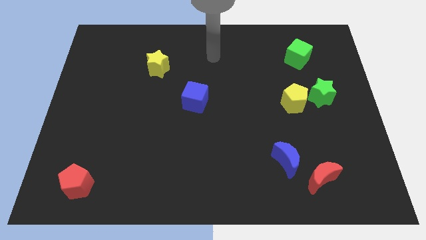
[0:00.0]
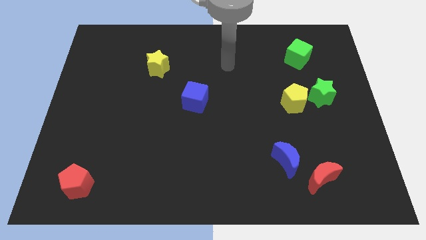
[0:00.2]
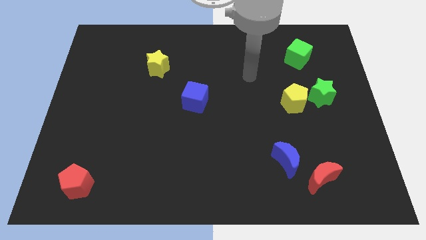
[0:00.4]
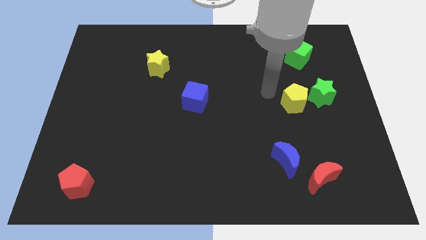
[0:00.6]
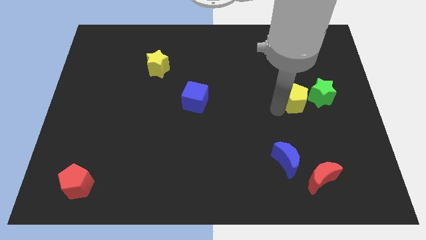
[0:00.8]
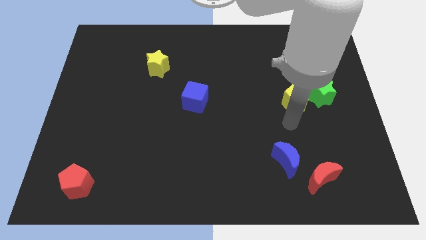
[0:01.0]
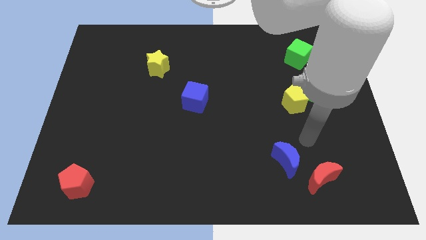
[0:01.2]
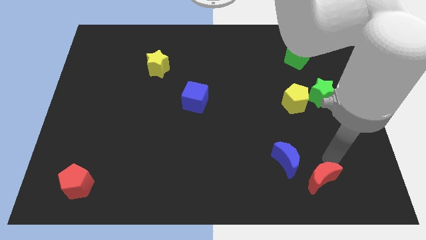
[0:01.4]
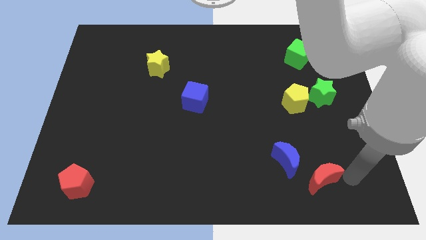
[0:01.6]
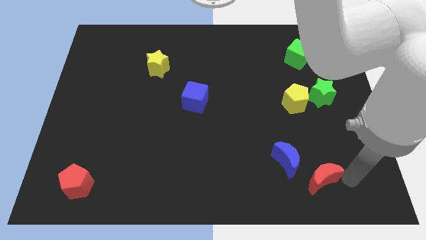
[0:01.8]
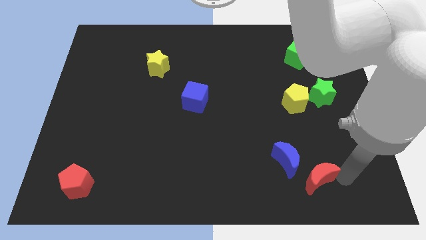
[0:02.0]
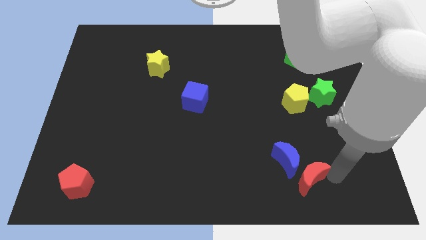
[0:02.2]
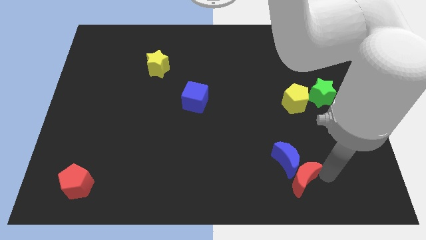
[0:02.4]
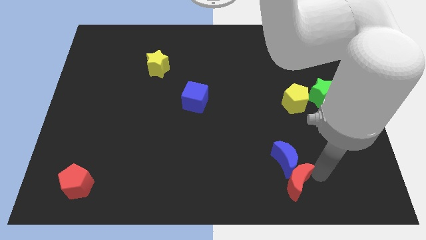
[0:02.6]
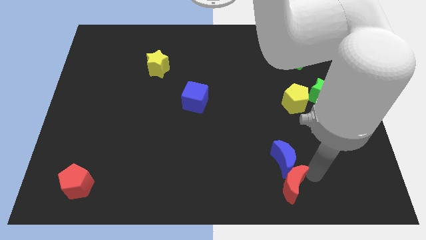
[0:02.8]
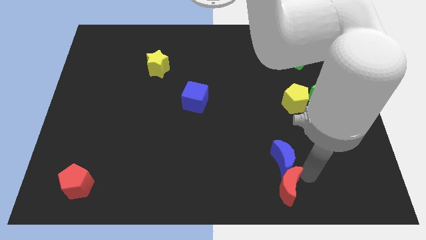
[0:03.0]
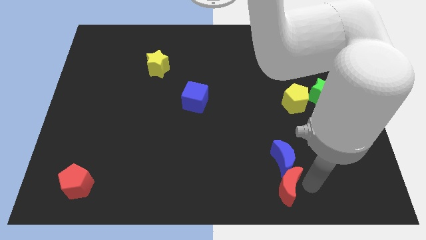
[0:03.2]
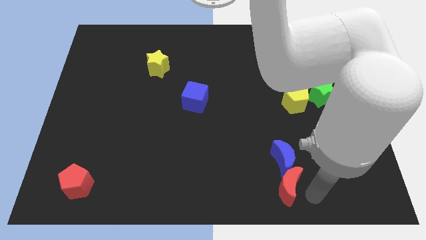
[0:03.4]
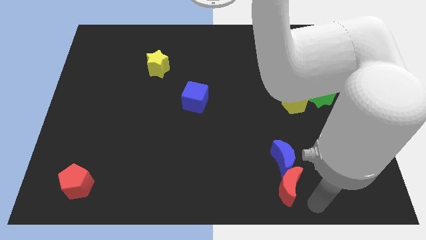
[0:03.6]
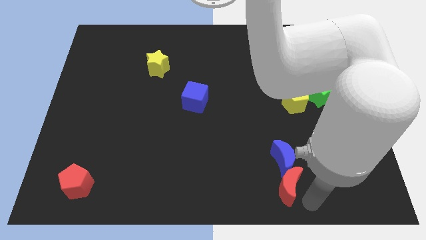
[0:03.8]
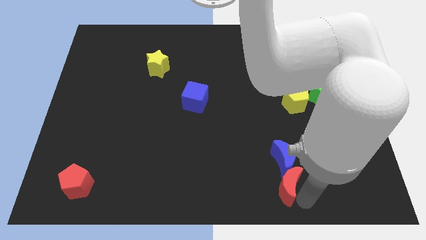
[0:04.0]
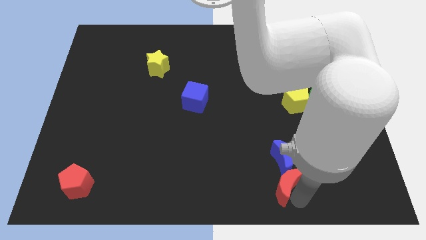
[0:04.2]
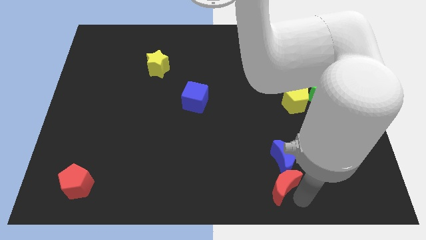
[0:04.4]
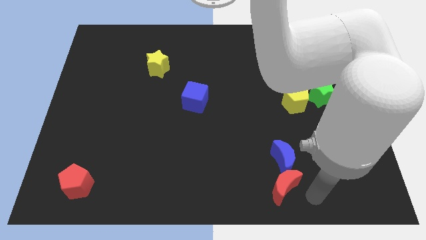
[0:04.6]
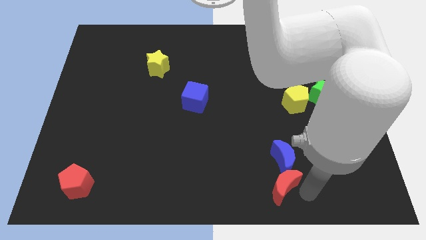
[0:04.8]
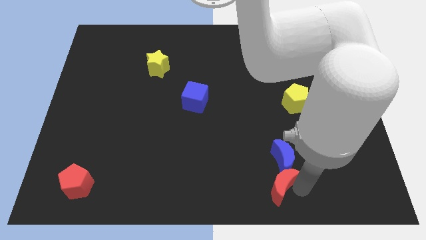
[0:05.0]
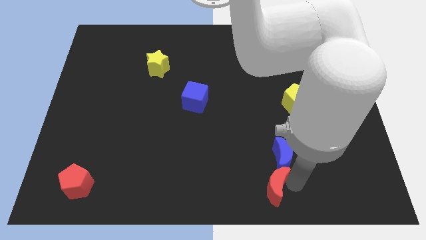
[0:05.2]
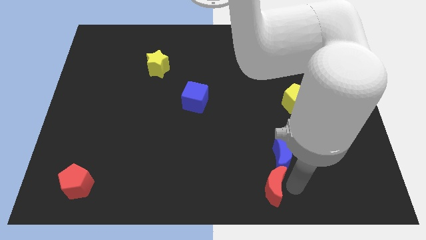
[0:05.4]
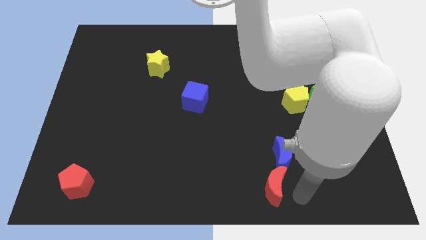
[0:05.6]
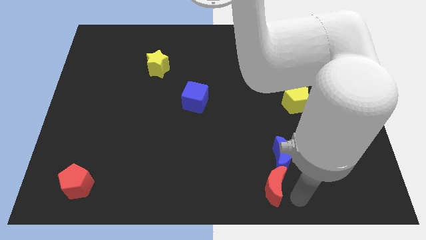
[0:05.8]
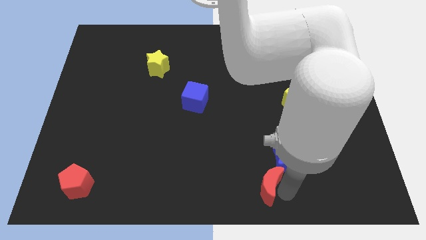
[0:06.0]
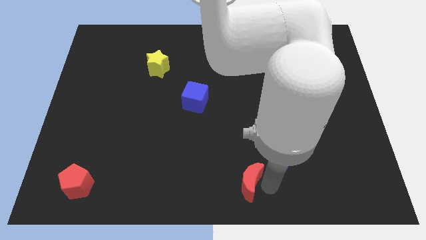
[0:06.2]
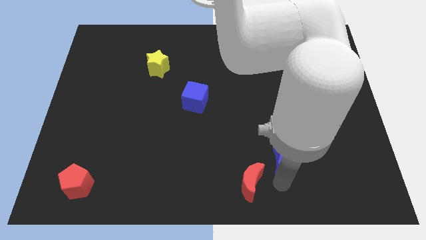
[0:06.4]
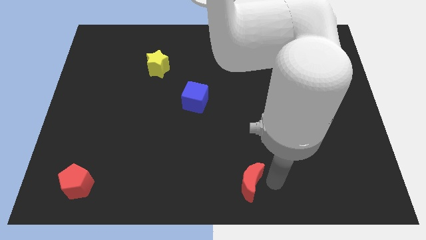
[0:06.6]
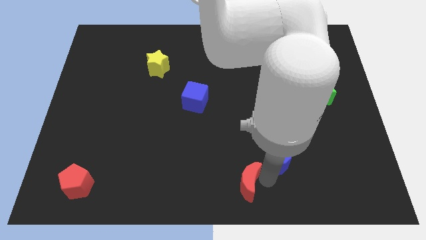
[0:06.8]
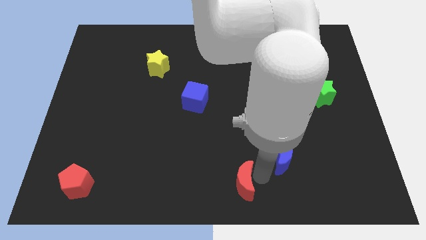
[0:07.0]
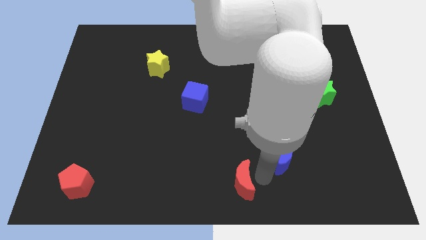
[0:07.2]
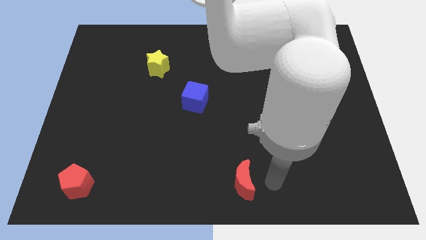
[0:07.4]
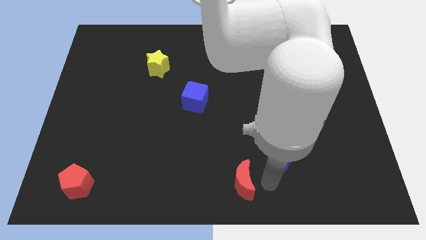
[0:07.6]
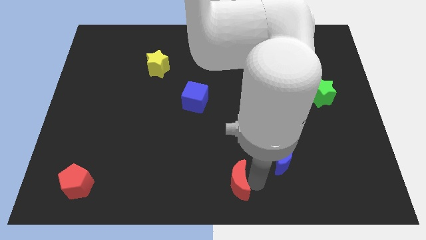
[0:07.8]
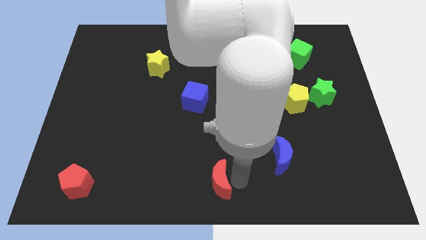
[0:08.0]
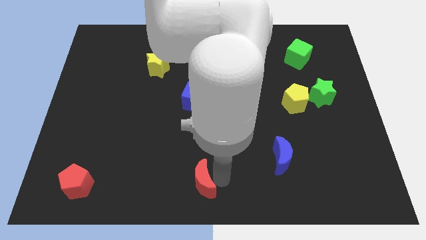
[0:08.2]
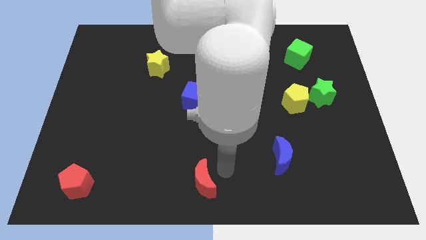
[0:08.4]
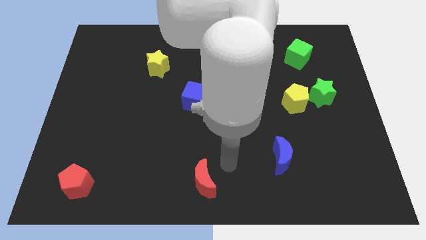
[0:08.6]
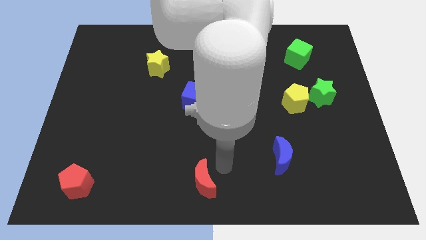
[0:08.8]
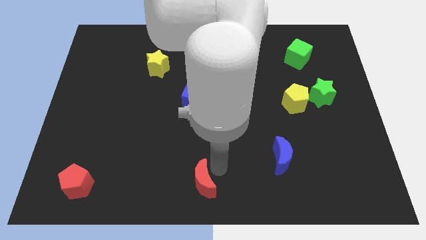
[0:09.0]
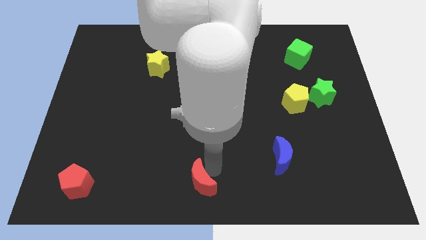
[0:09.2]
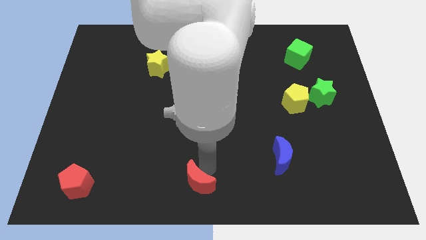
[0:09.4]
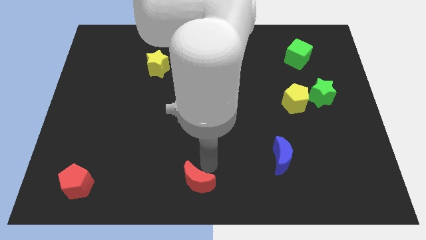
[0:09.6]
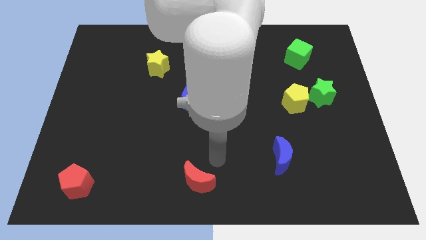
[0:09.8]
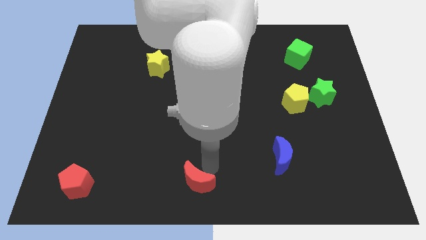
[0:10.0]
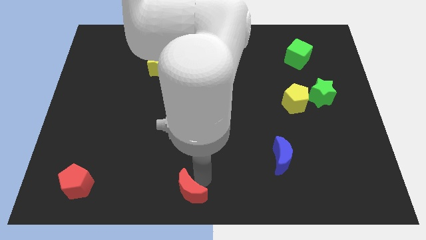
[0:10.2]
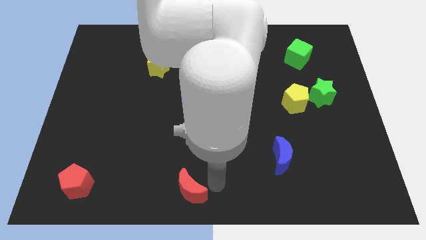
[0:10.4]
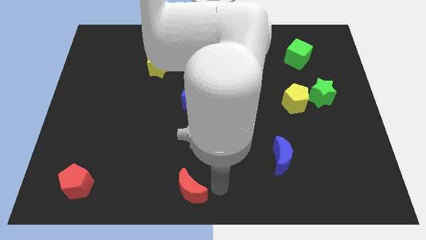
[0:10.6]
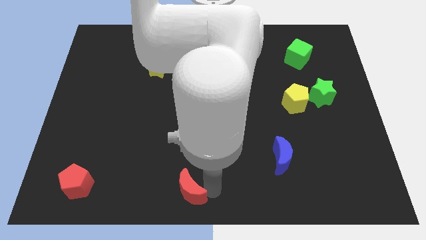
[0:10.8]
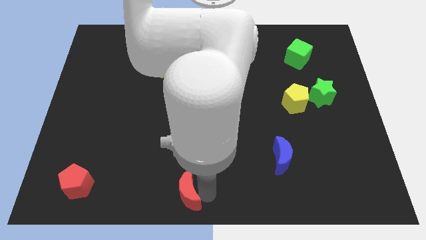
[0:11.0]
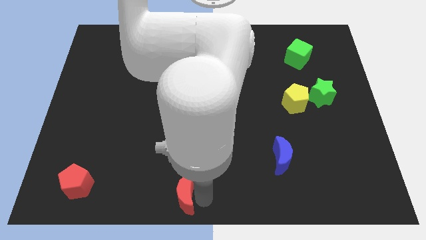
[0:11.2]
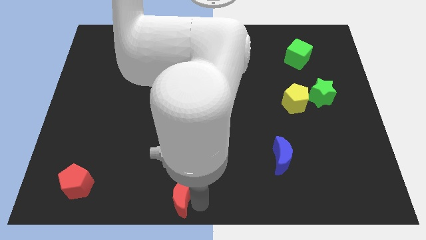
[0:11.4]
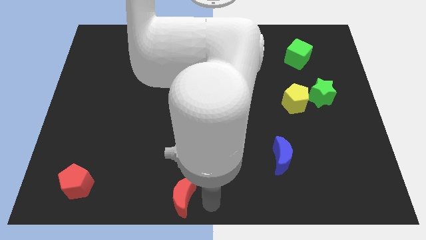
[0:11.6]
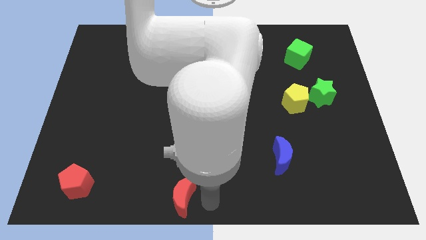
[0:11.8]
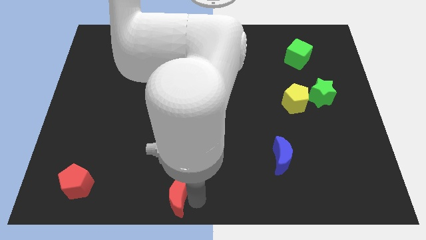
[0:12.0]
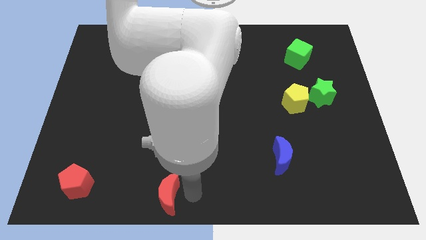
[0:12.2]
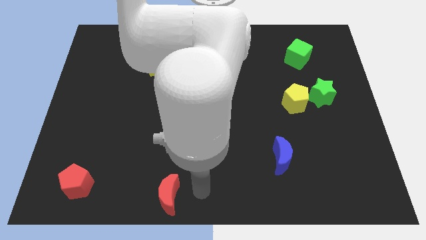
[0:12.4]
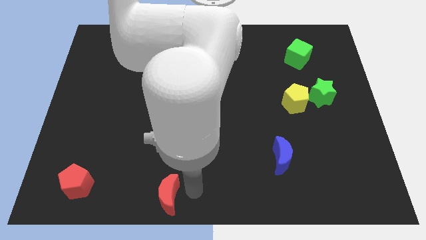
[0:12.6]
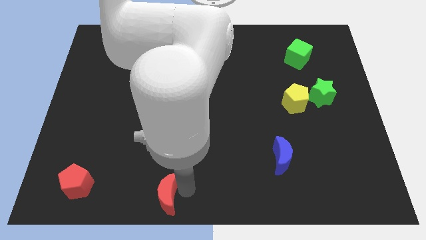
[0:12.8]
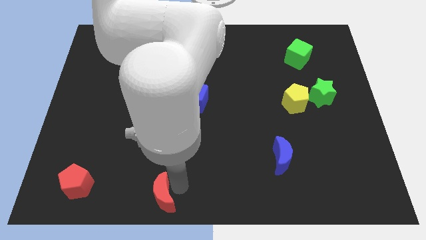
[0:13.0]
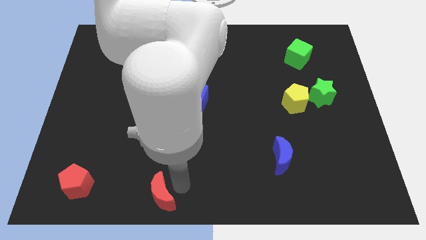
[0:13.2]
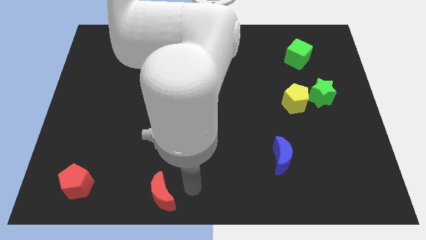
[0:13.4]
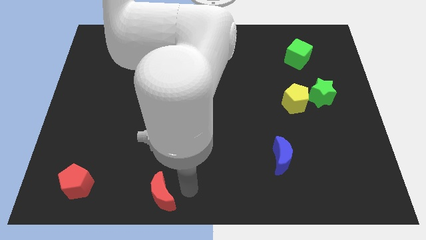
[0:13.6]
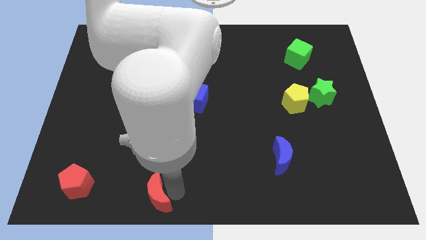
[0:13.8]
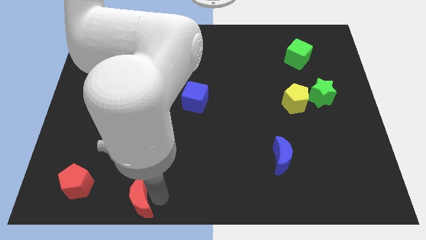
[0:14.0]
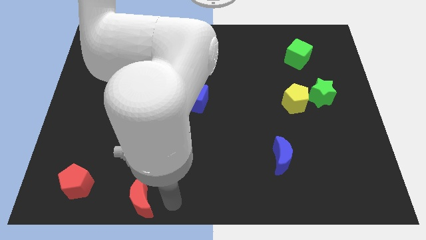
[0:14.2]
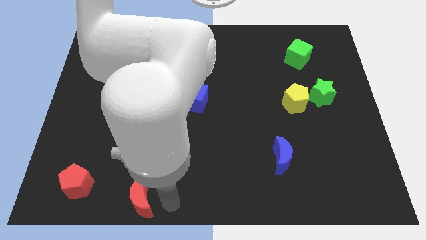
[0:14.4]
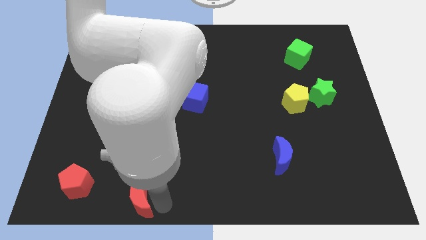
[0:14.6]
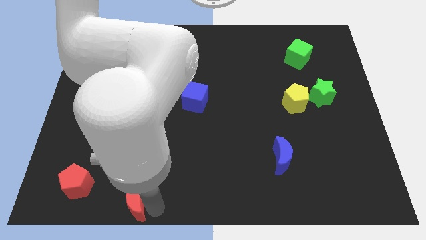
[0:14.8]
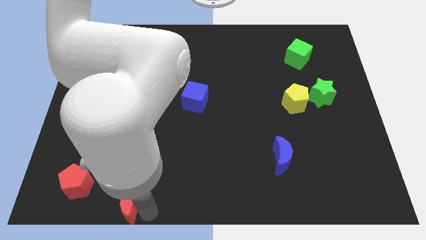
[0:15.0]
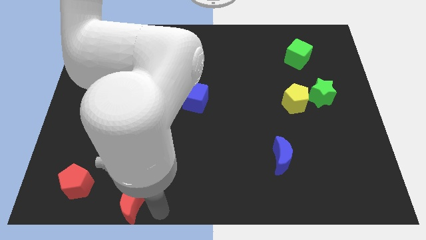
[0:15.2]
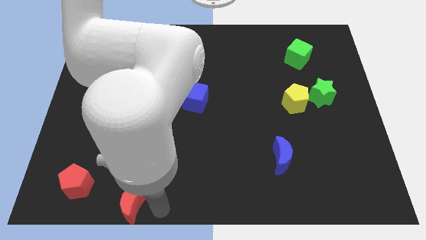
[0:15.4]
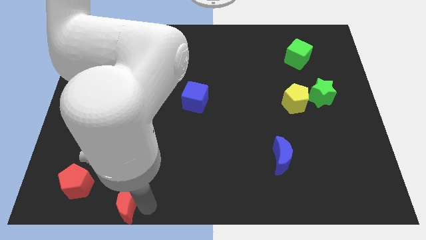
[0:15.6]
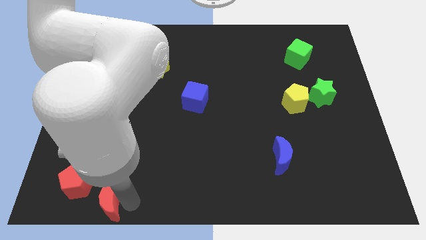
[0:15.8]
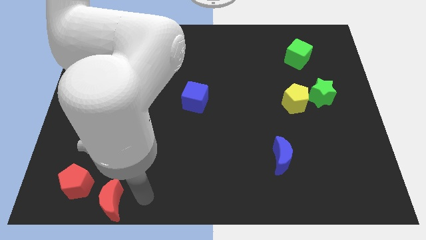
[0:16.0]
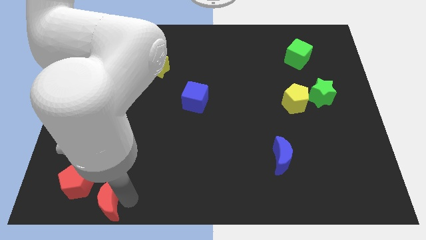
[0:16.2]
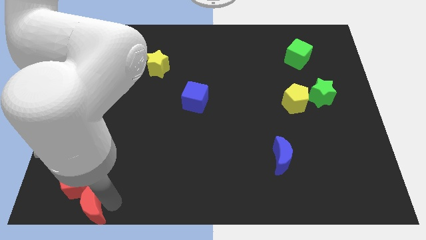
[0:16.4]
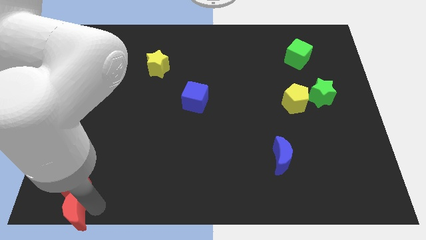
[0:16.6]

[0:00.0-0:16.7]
move the red moon to the bottom left
